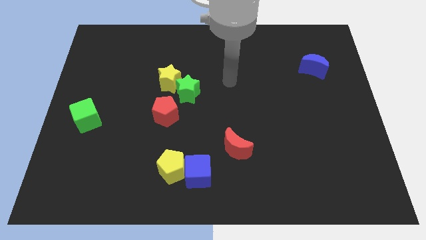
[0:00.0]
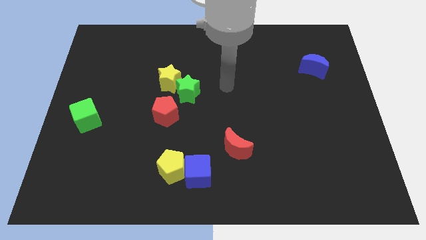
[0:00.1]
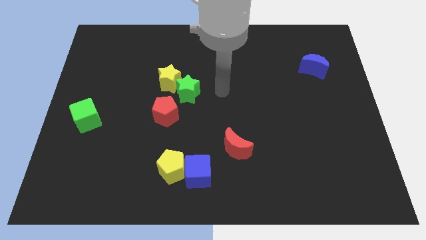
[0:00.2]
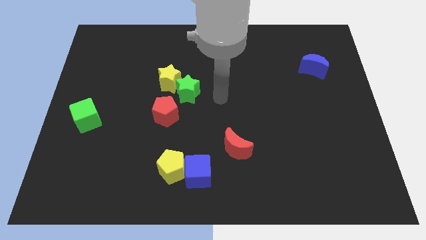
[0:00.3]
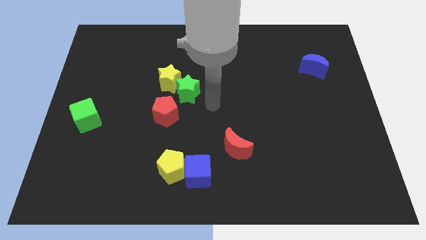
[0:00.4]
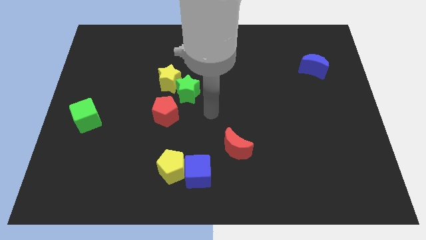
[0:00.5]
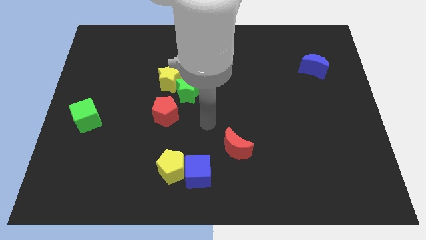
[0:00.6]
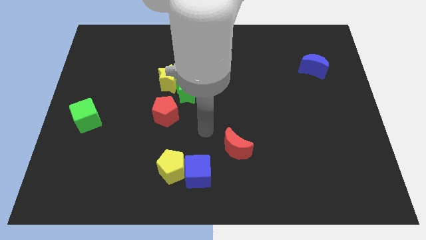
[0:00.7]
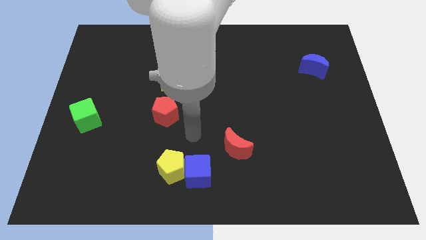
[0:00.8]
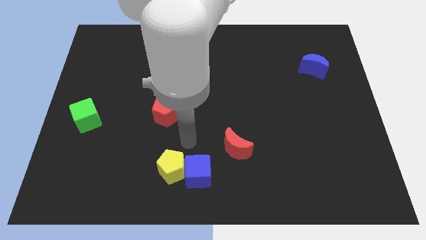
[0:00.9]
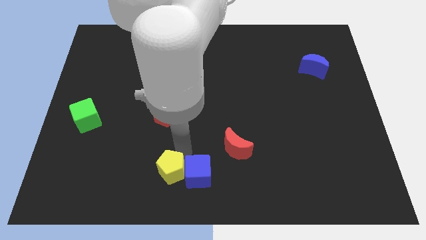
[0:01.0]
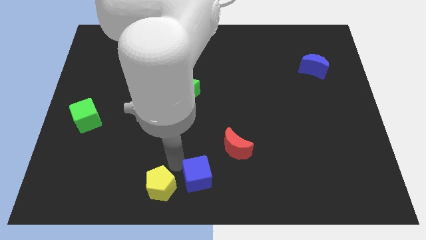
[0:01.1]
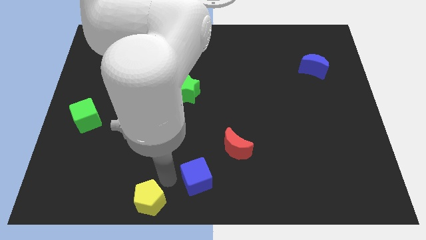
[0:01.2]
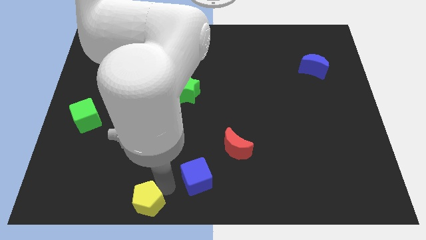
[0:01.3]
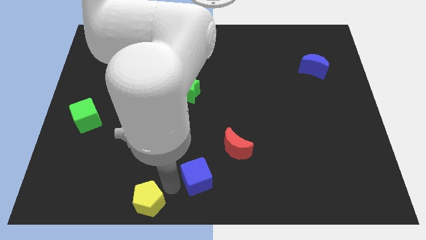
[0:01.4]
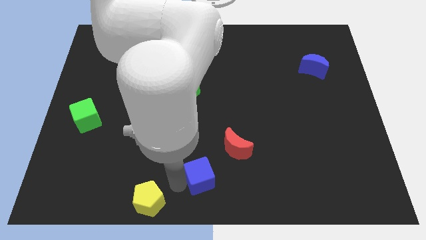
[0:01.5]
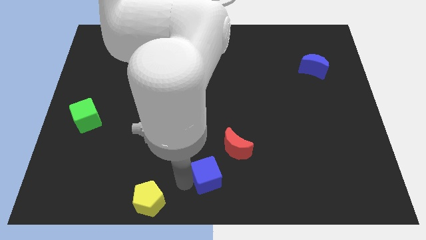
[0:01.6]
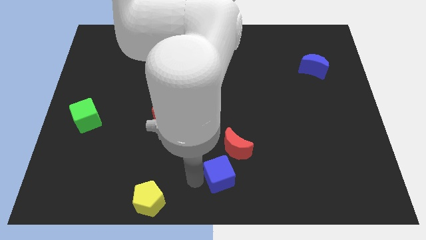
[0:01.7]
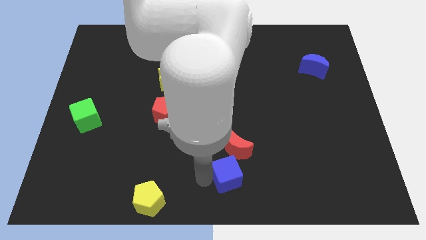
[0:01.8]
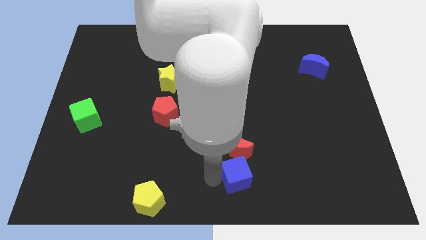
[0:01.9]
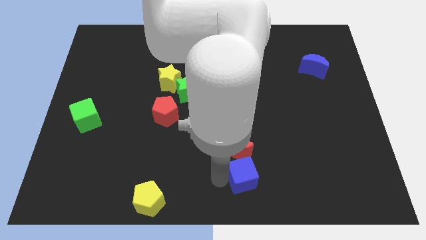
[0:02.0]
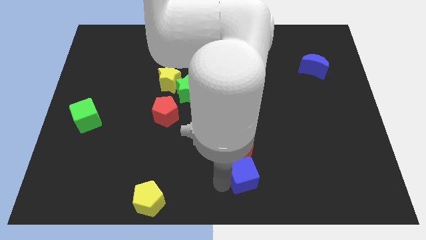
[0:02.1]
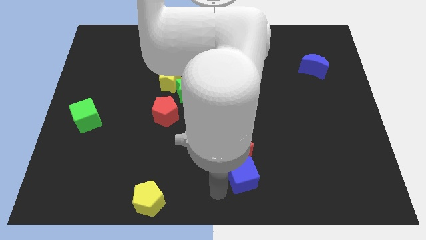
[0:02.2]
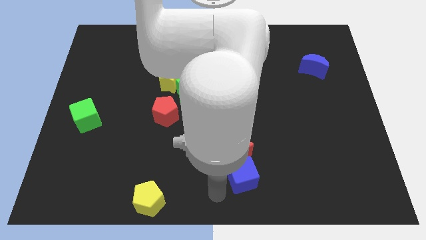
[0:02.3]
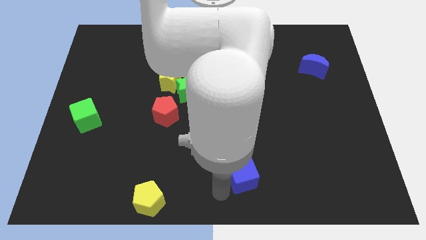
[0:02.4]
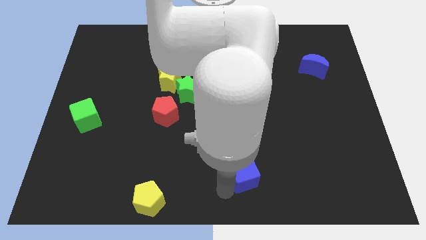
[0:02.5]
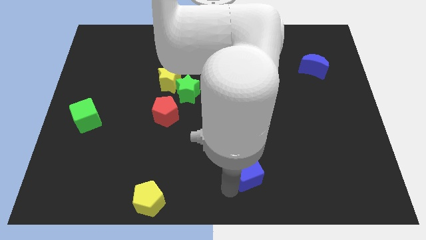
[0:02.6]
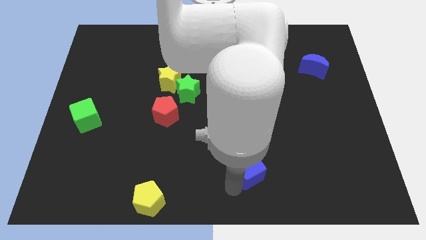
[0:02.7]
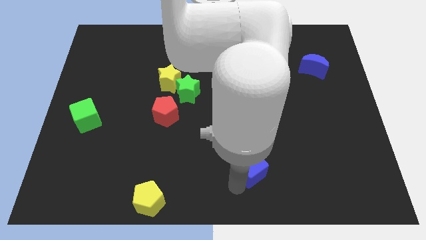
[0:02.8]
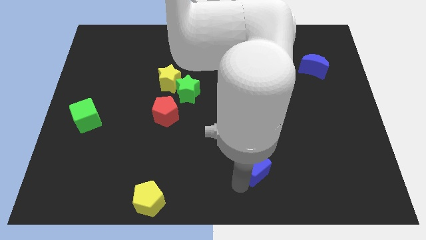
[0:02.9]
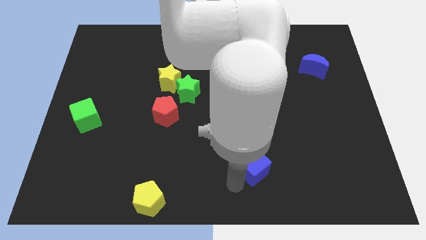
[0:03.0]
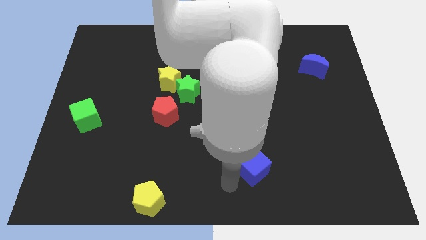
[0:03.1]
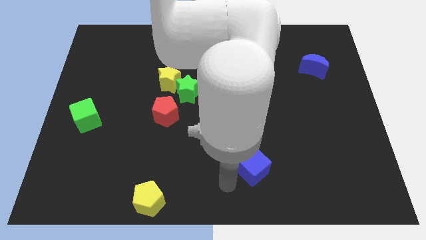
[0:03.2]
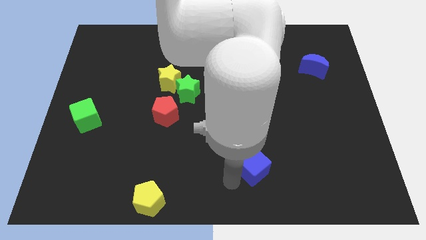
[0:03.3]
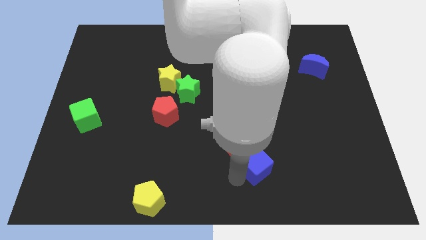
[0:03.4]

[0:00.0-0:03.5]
move the blue cube just right of the red moon

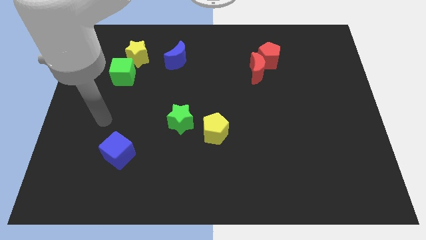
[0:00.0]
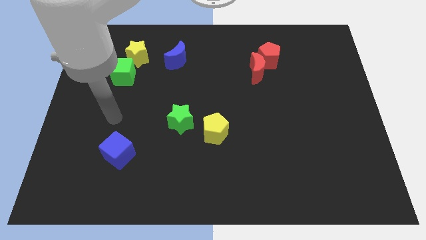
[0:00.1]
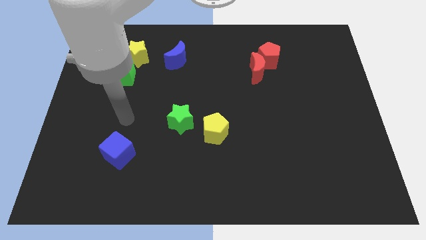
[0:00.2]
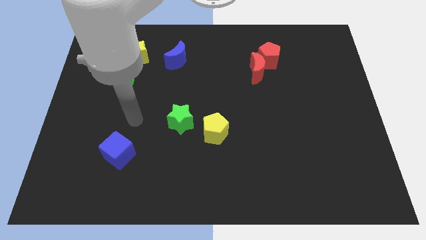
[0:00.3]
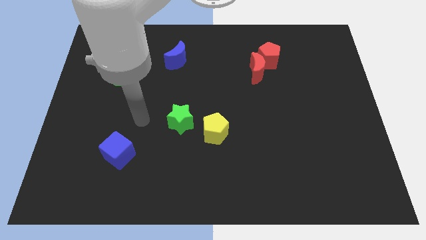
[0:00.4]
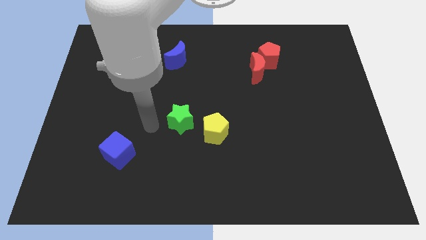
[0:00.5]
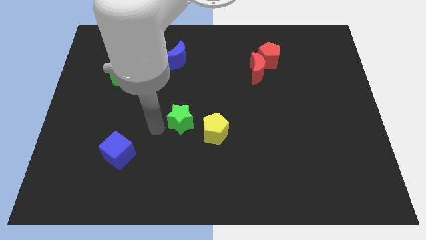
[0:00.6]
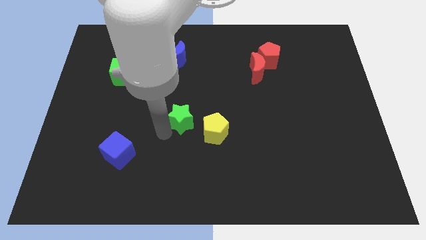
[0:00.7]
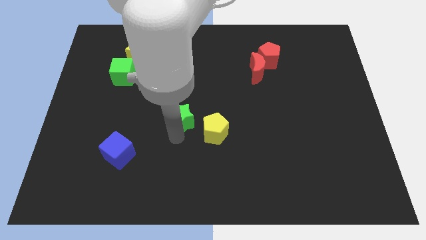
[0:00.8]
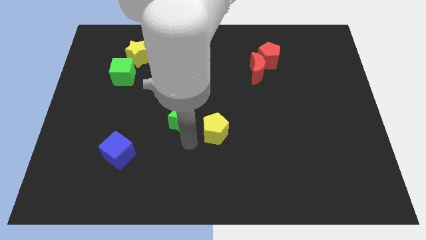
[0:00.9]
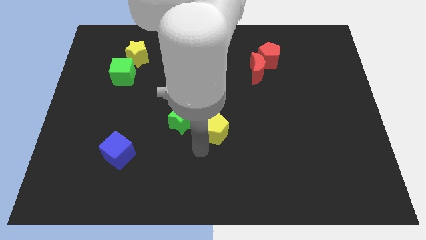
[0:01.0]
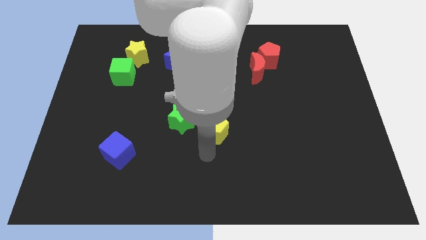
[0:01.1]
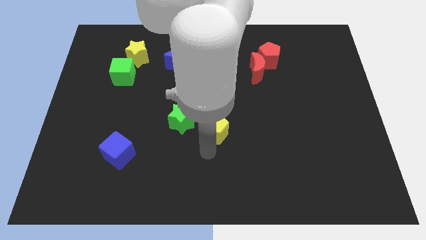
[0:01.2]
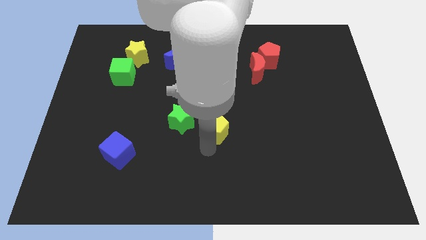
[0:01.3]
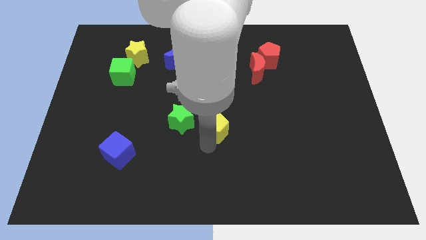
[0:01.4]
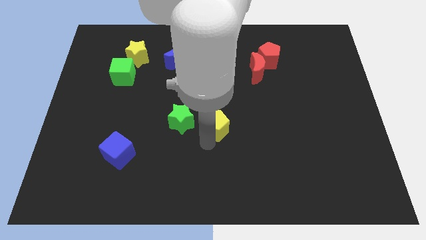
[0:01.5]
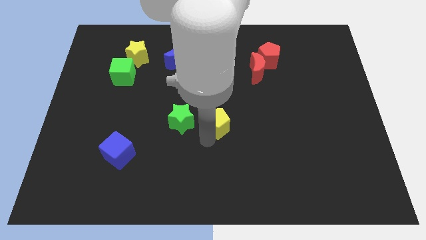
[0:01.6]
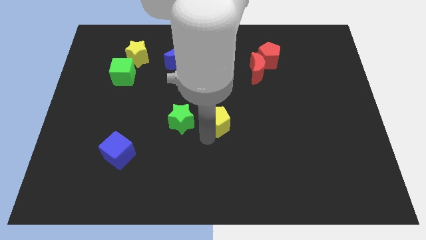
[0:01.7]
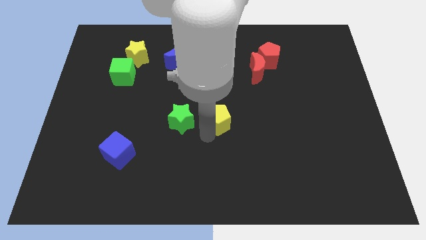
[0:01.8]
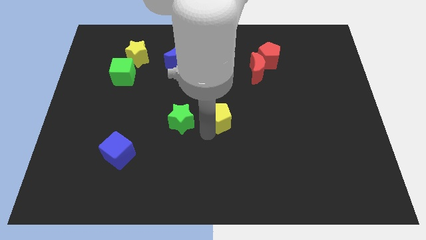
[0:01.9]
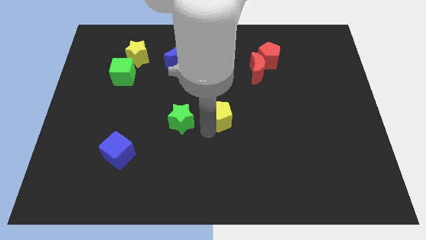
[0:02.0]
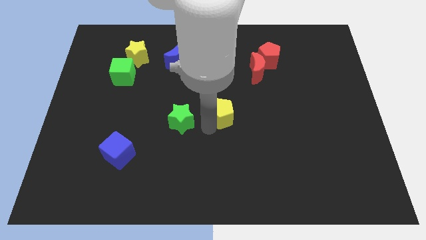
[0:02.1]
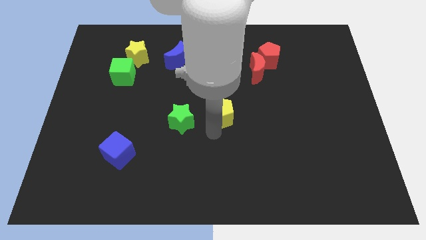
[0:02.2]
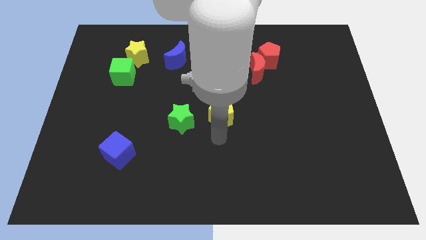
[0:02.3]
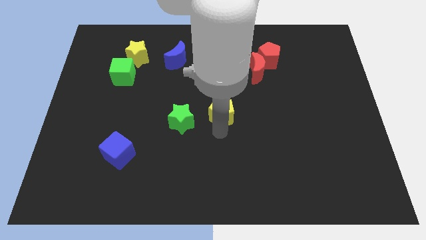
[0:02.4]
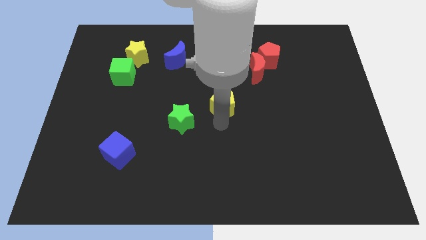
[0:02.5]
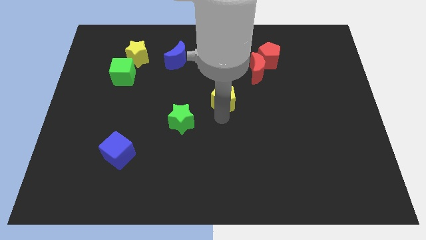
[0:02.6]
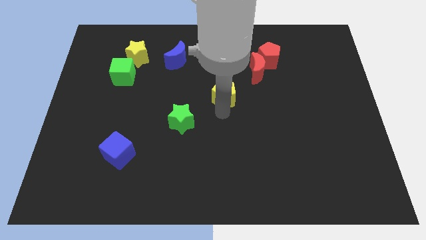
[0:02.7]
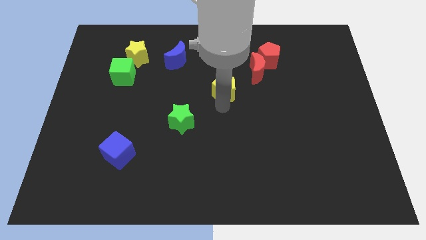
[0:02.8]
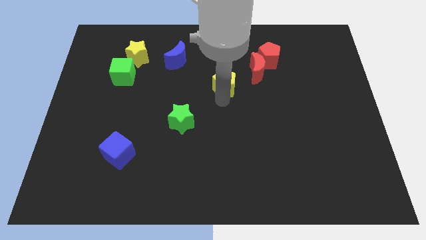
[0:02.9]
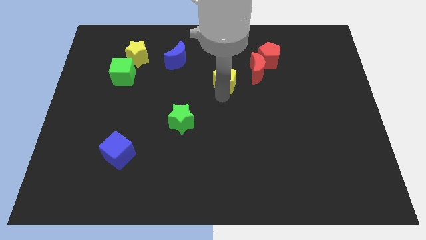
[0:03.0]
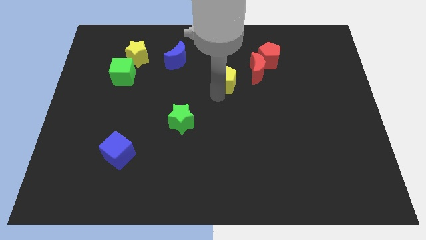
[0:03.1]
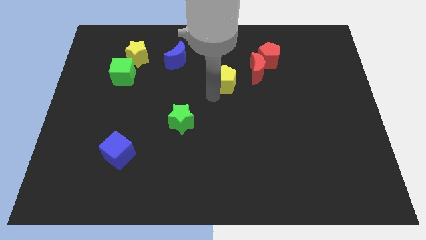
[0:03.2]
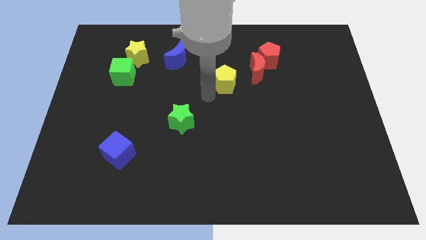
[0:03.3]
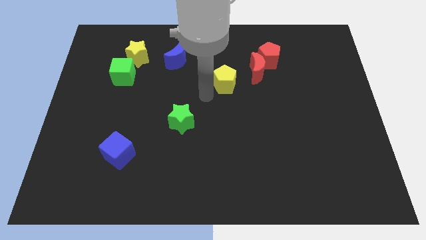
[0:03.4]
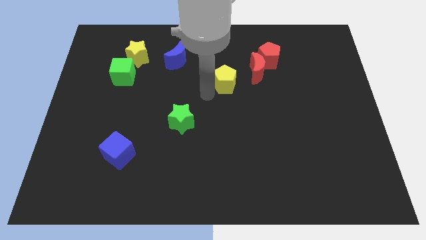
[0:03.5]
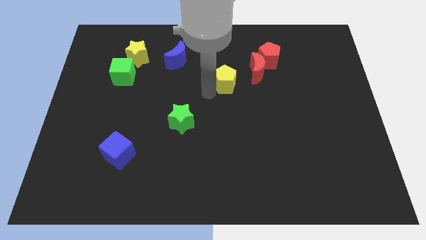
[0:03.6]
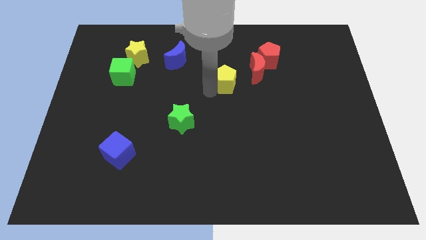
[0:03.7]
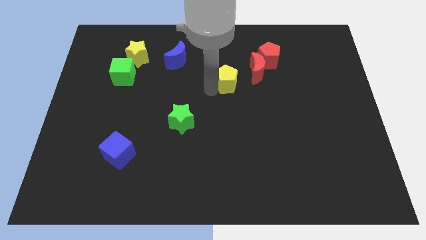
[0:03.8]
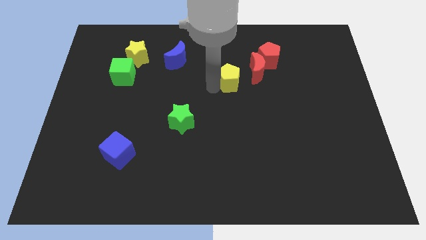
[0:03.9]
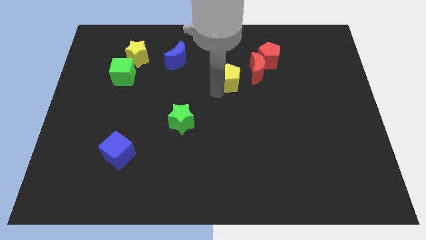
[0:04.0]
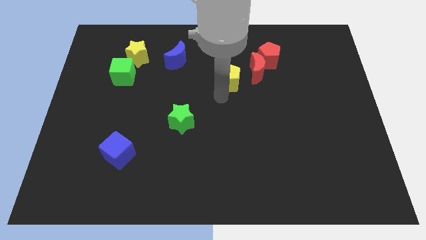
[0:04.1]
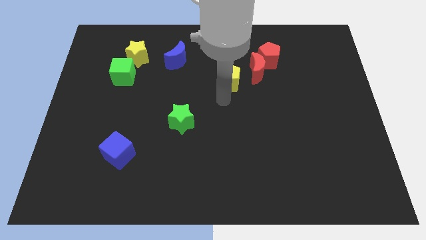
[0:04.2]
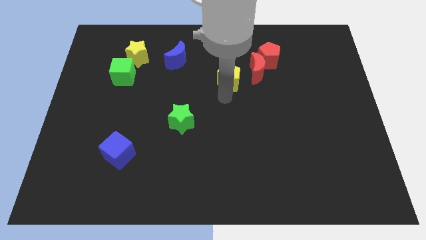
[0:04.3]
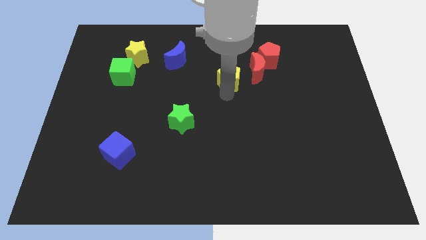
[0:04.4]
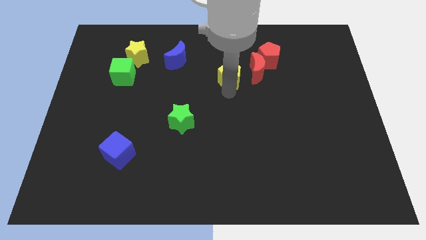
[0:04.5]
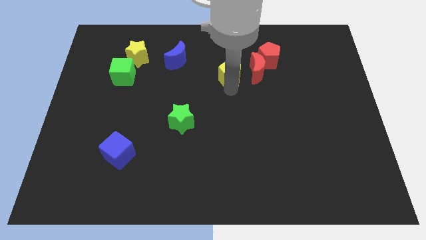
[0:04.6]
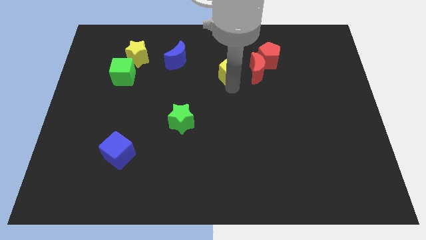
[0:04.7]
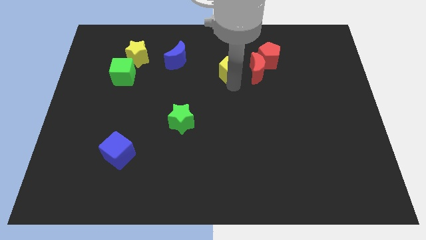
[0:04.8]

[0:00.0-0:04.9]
push the yellow pentagon to the top left side of the red moon
